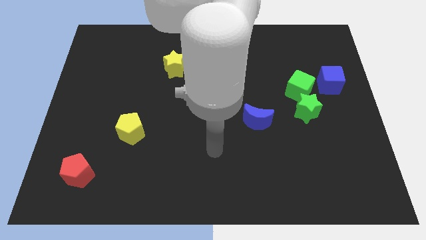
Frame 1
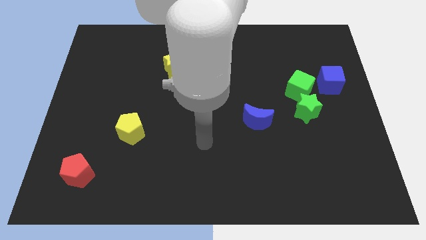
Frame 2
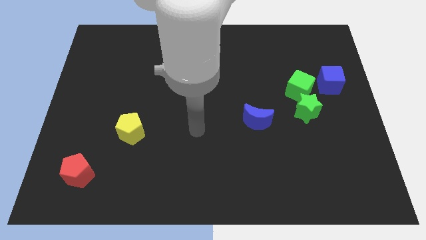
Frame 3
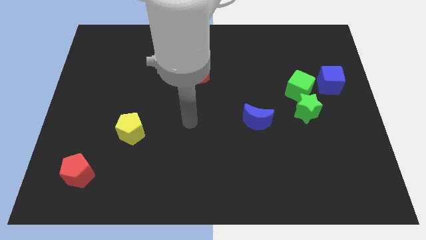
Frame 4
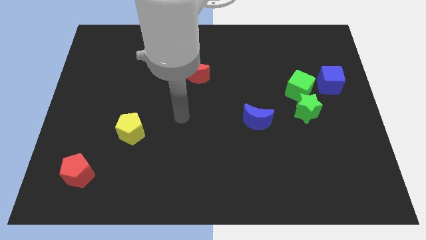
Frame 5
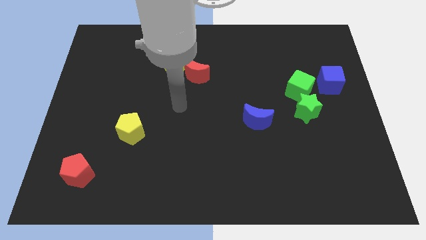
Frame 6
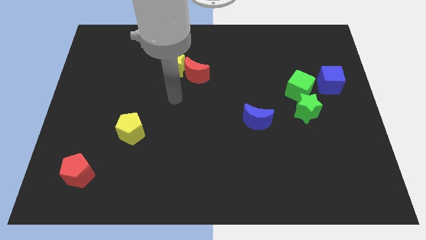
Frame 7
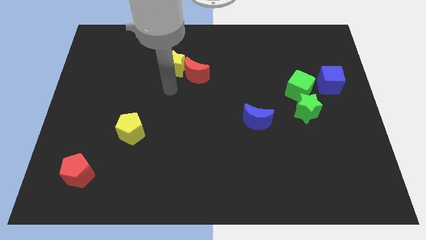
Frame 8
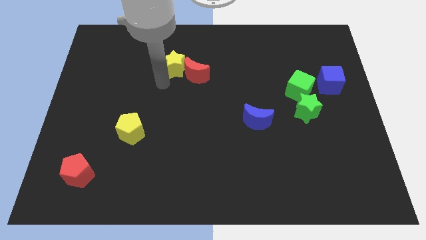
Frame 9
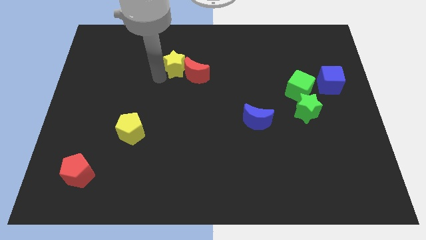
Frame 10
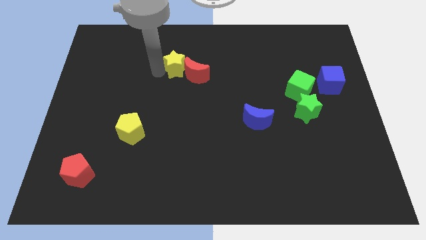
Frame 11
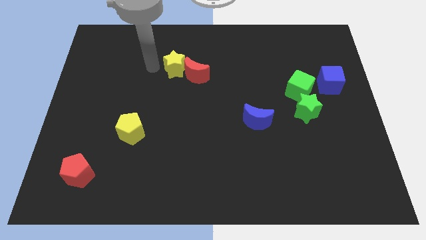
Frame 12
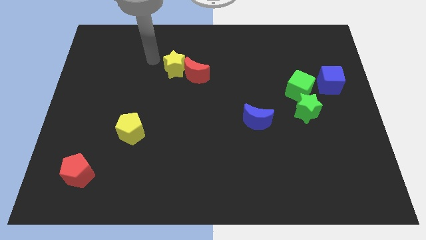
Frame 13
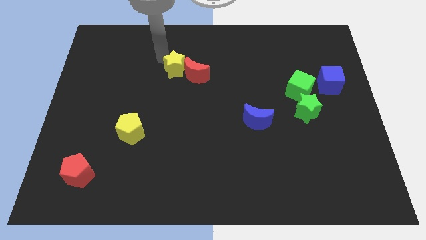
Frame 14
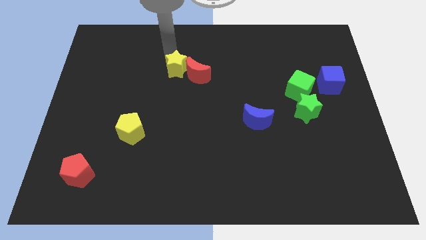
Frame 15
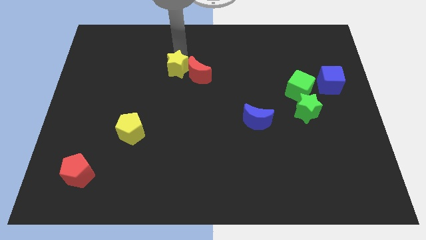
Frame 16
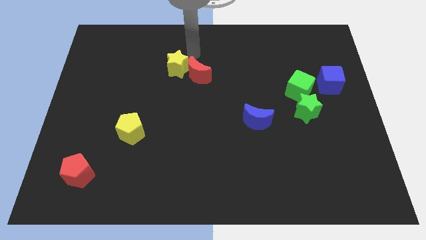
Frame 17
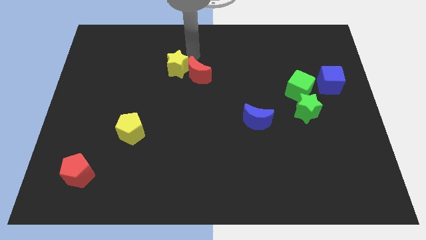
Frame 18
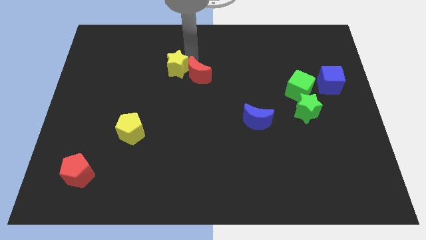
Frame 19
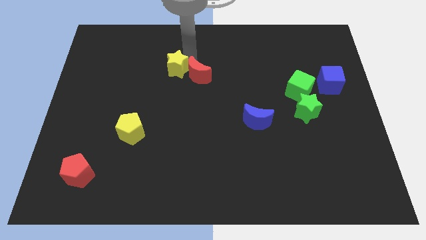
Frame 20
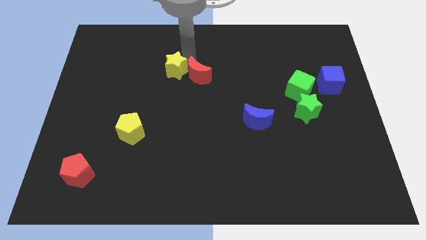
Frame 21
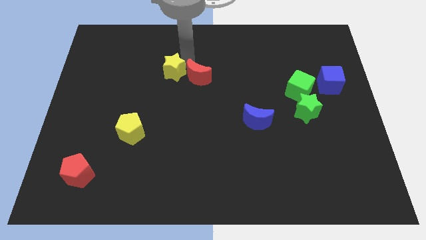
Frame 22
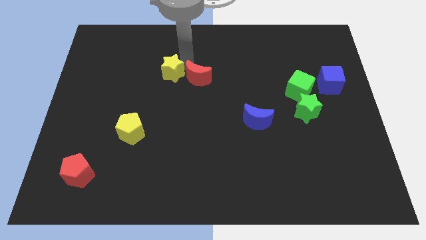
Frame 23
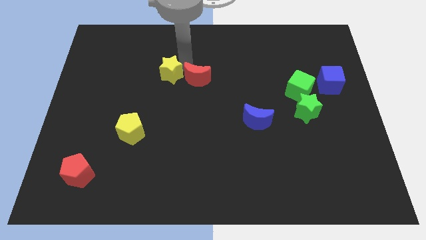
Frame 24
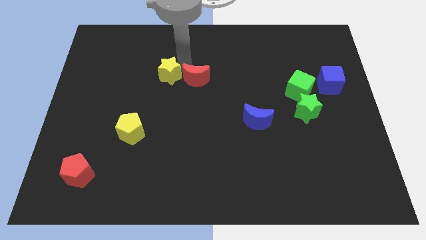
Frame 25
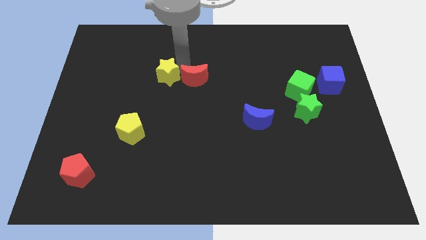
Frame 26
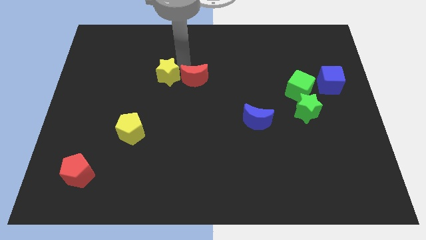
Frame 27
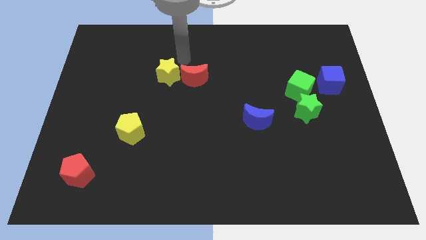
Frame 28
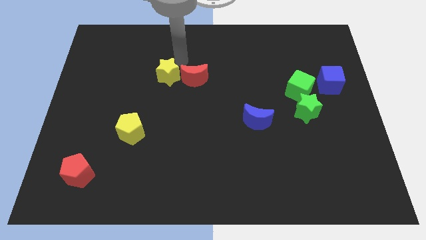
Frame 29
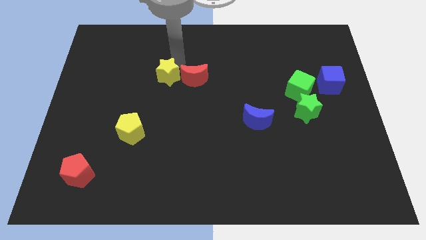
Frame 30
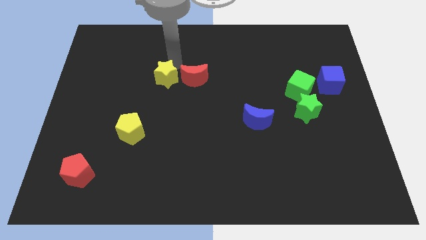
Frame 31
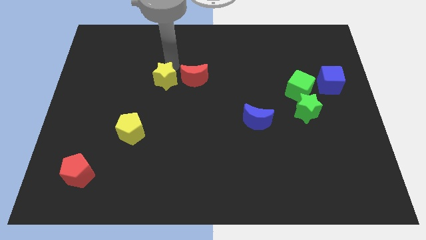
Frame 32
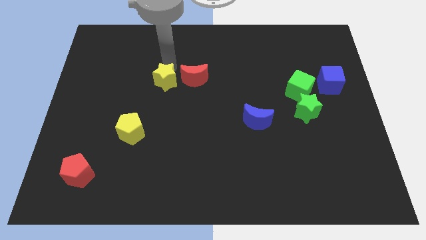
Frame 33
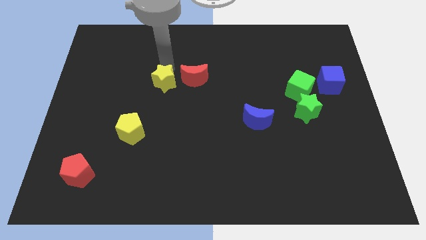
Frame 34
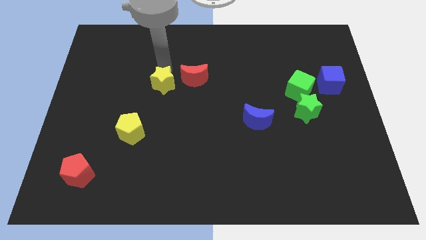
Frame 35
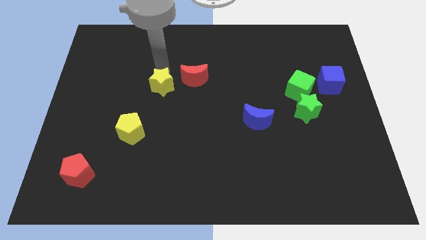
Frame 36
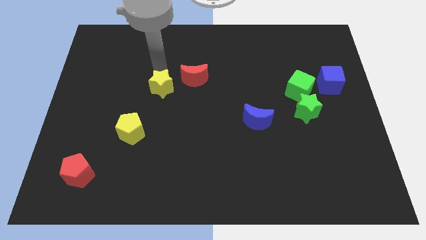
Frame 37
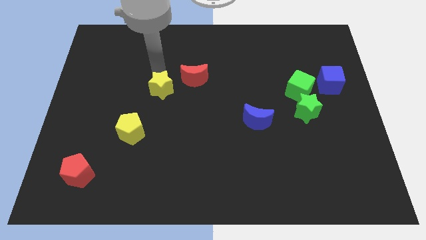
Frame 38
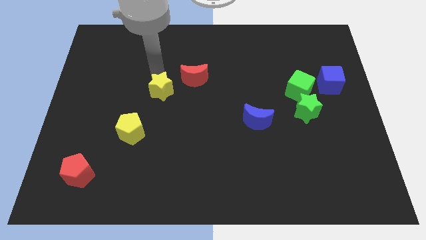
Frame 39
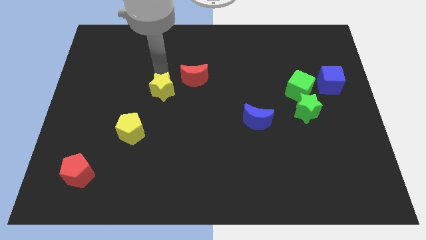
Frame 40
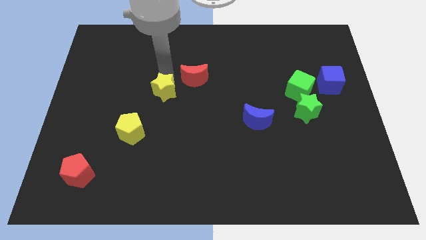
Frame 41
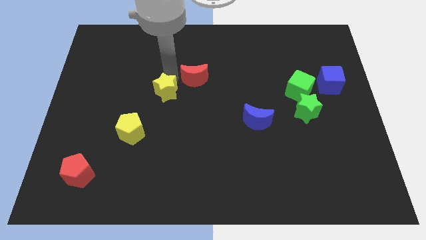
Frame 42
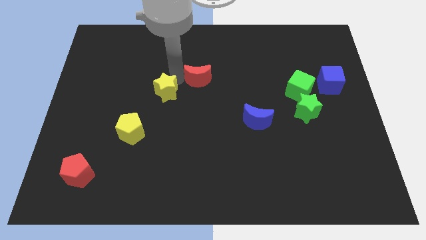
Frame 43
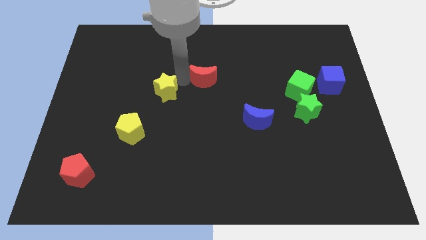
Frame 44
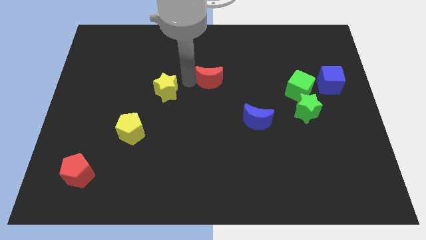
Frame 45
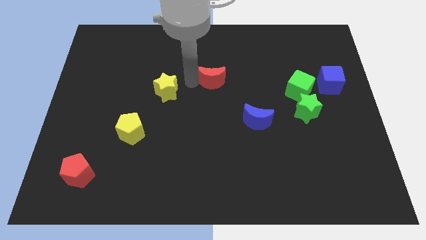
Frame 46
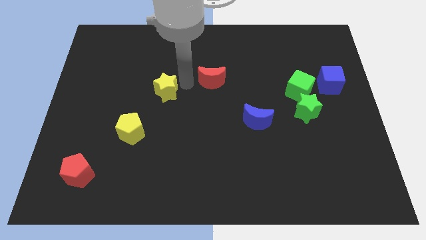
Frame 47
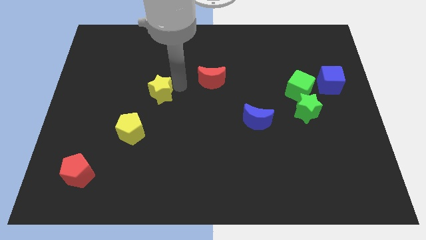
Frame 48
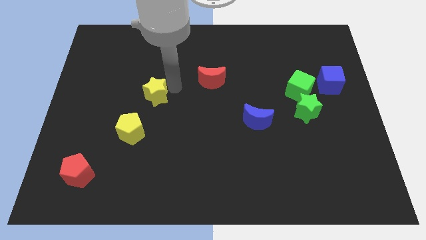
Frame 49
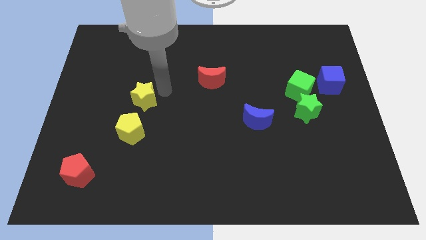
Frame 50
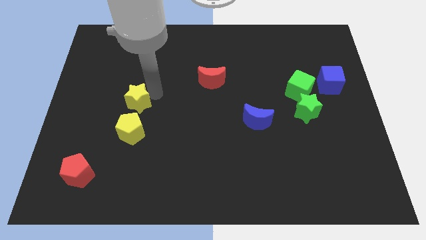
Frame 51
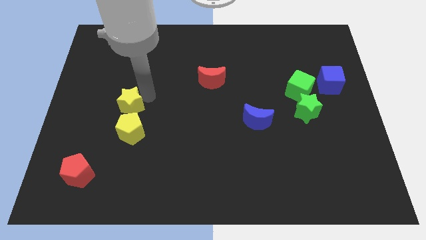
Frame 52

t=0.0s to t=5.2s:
push the yellow star to the top left side of the yellow pentagon

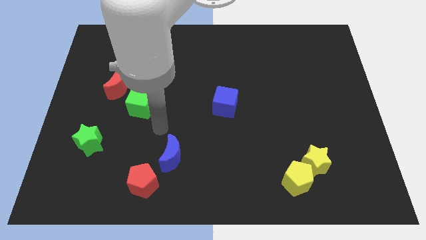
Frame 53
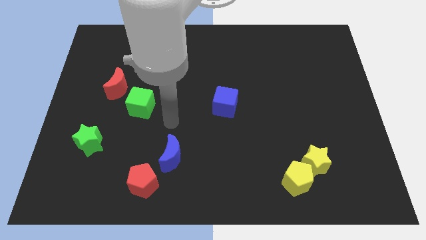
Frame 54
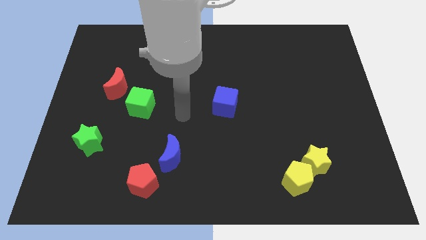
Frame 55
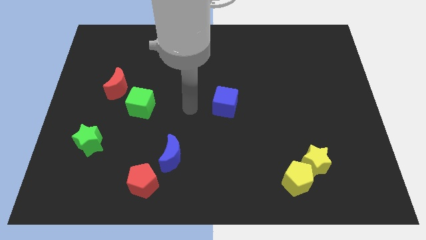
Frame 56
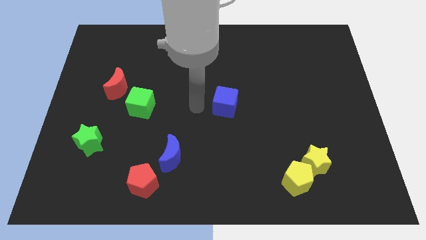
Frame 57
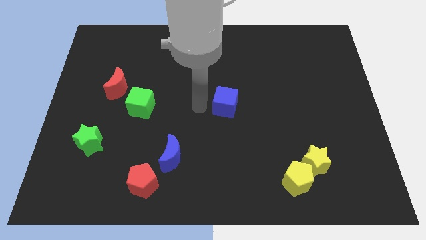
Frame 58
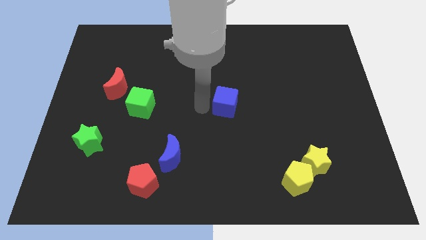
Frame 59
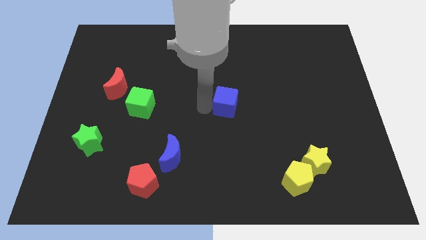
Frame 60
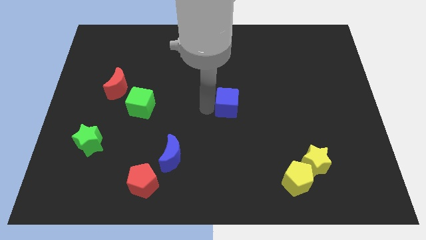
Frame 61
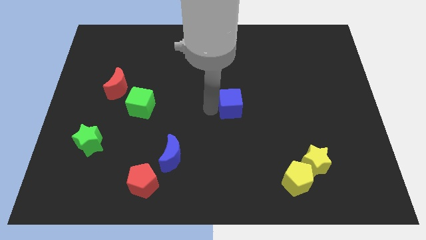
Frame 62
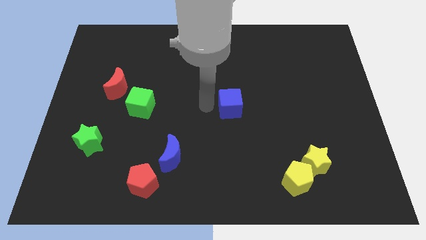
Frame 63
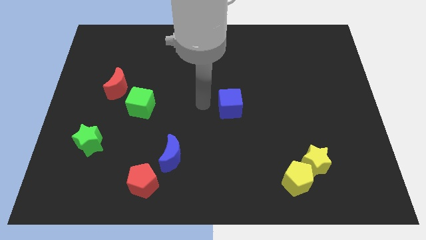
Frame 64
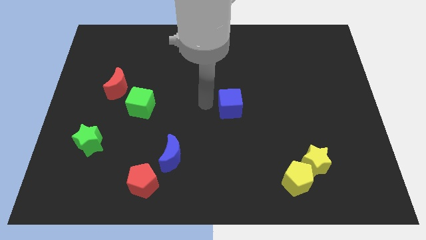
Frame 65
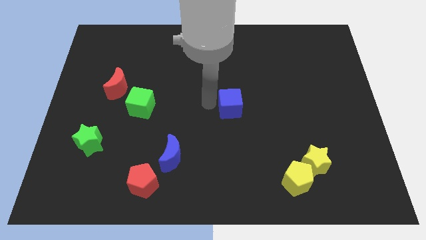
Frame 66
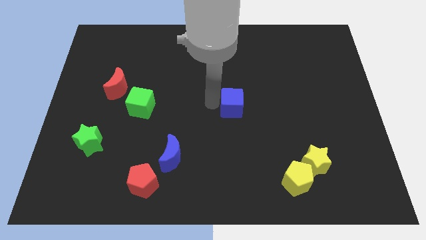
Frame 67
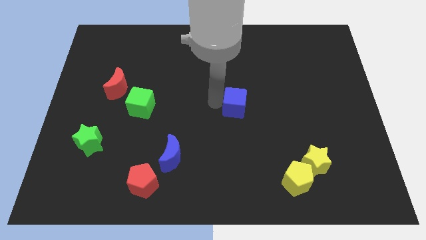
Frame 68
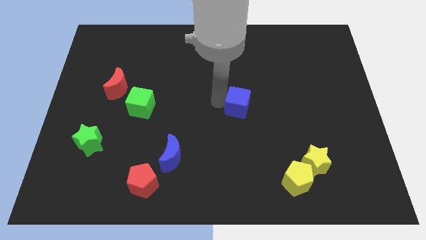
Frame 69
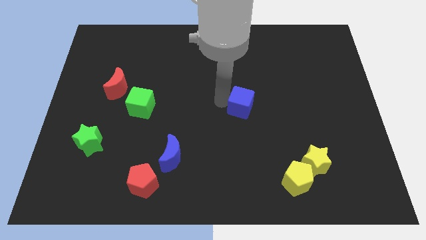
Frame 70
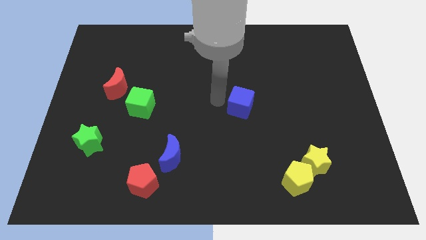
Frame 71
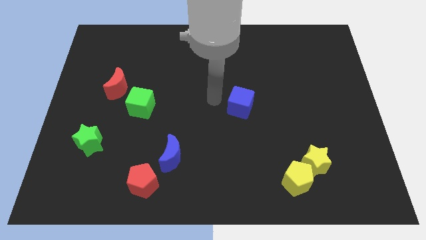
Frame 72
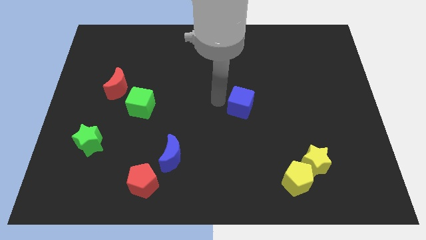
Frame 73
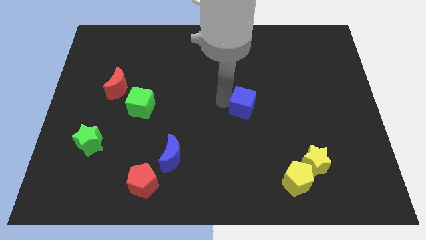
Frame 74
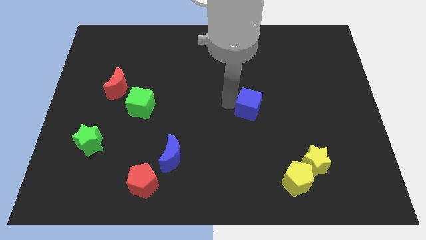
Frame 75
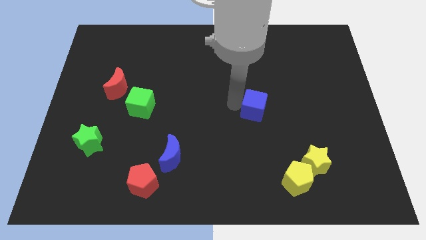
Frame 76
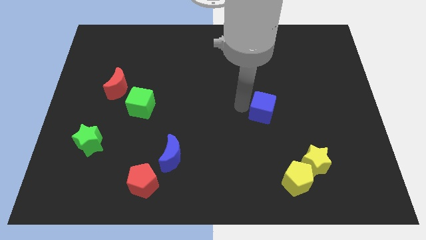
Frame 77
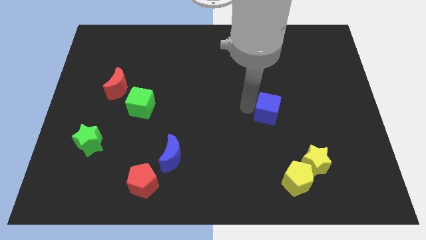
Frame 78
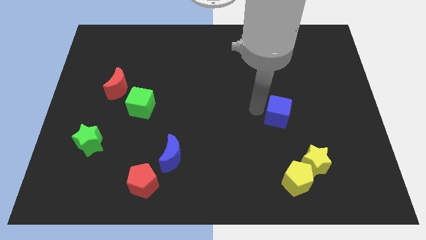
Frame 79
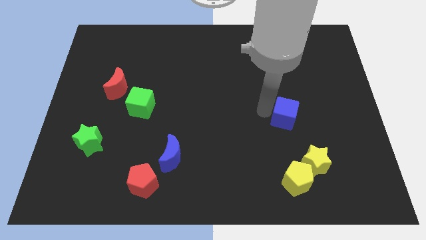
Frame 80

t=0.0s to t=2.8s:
put the blue cube to the top side of the yellow star
